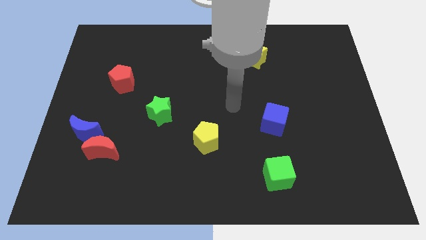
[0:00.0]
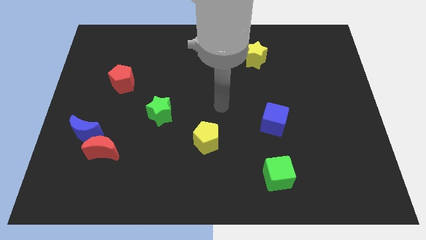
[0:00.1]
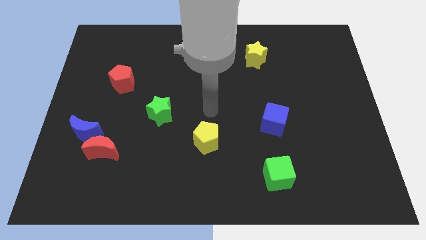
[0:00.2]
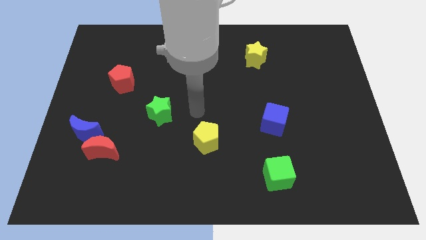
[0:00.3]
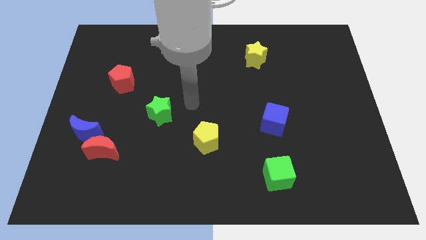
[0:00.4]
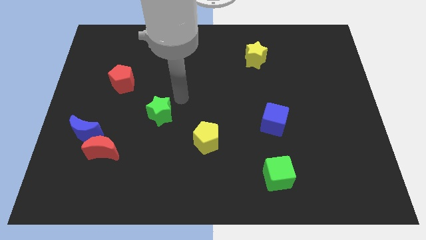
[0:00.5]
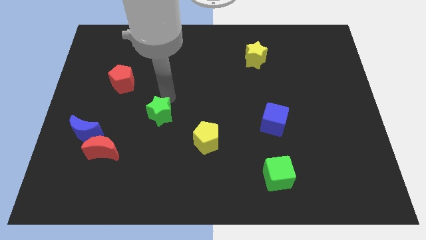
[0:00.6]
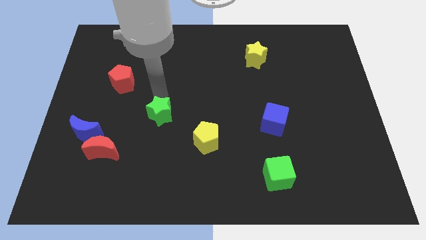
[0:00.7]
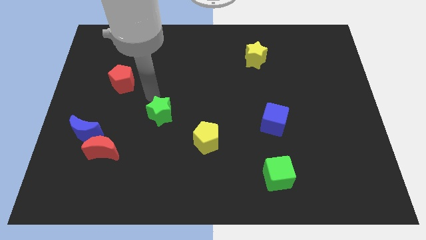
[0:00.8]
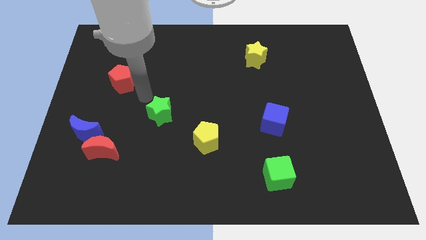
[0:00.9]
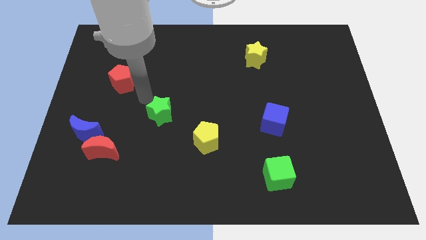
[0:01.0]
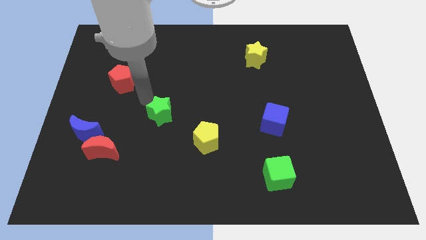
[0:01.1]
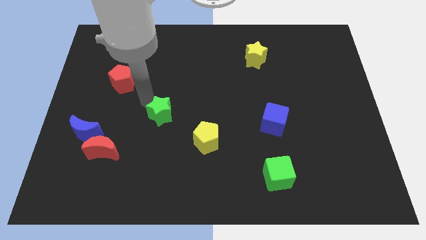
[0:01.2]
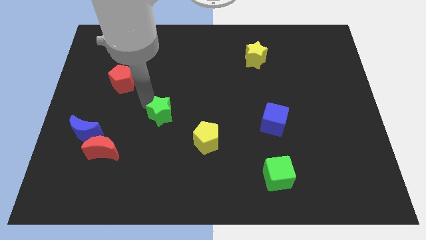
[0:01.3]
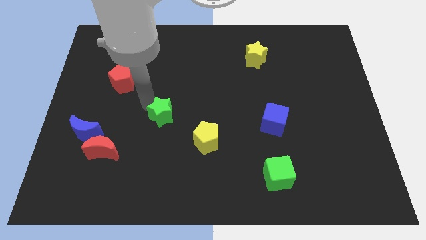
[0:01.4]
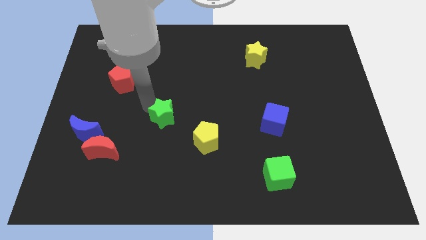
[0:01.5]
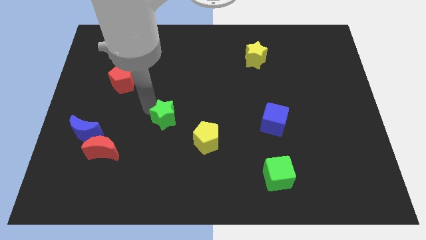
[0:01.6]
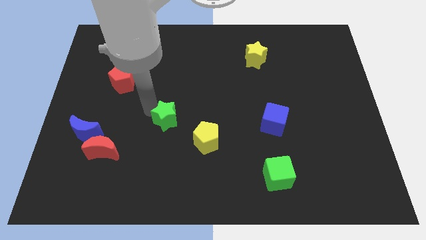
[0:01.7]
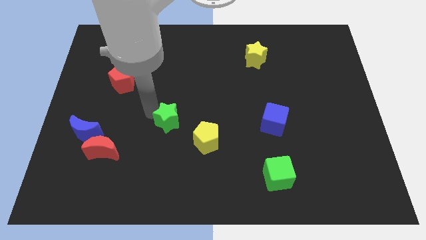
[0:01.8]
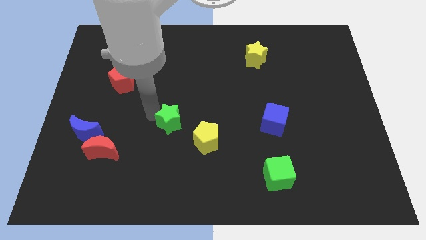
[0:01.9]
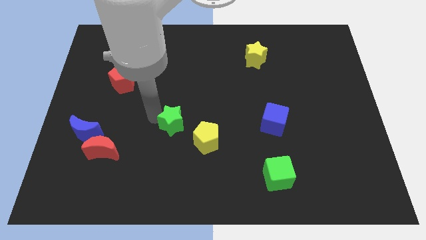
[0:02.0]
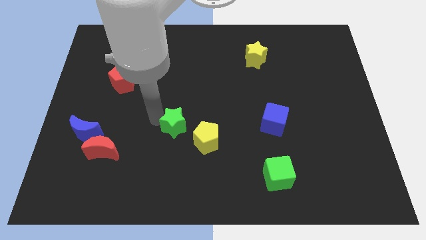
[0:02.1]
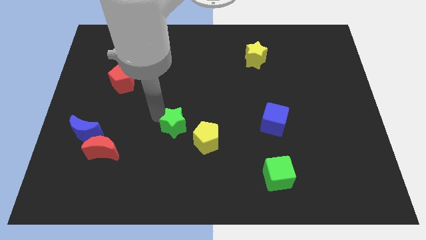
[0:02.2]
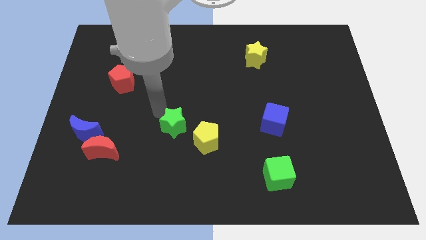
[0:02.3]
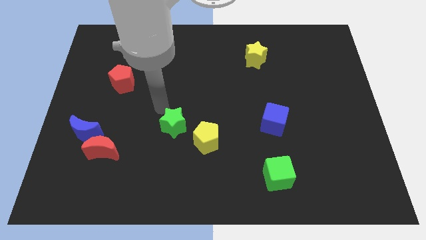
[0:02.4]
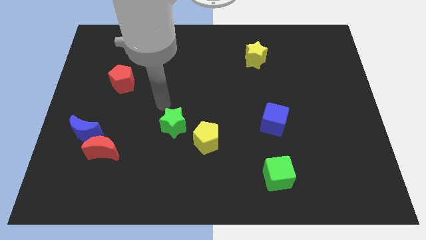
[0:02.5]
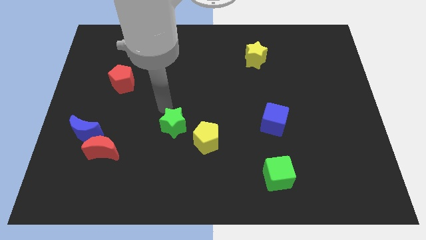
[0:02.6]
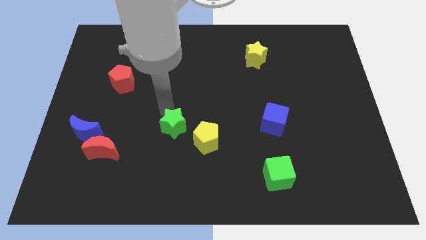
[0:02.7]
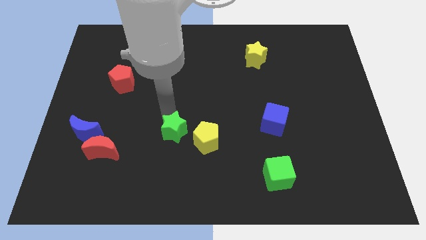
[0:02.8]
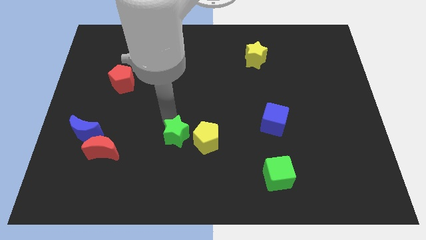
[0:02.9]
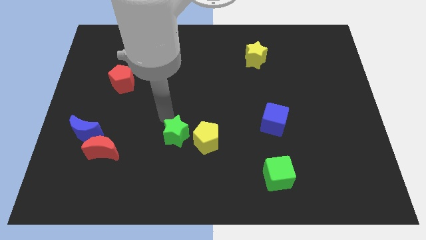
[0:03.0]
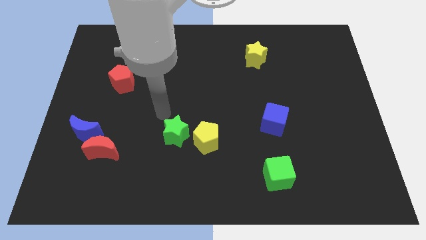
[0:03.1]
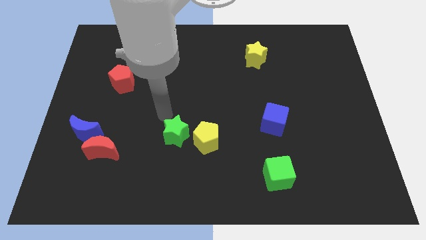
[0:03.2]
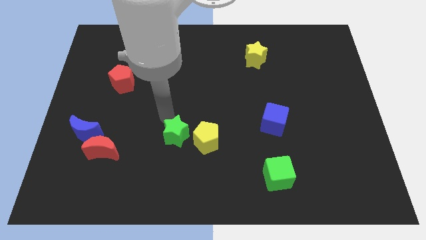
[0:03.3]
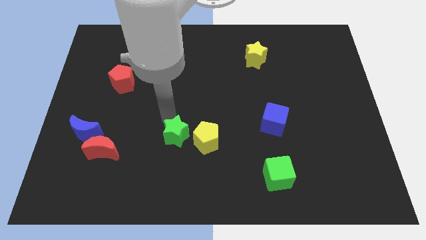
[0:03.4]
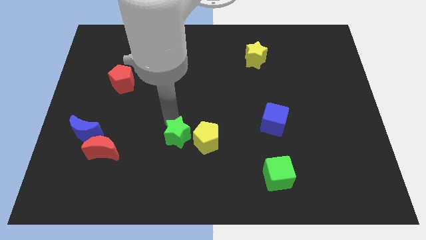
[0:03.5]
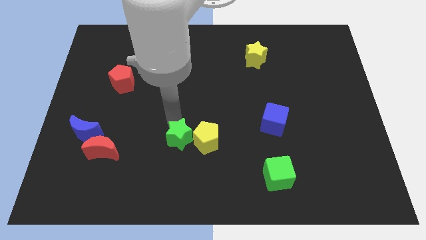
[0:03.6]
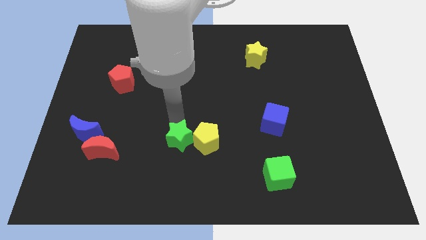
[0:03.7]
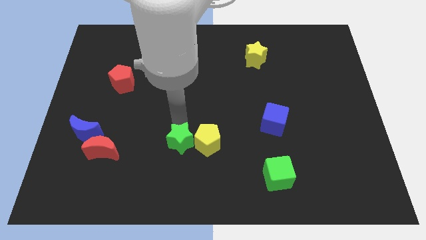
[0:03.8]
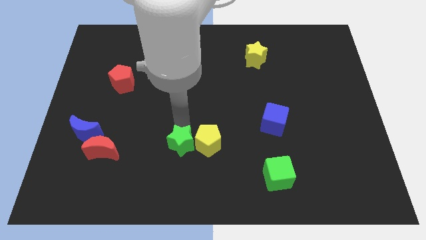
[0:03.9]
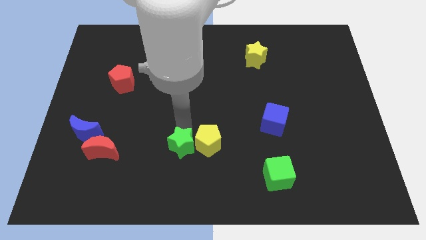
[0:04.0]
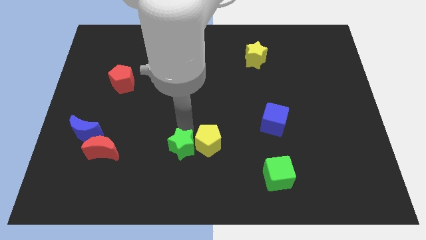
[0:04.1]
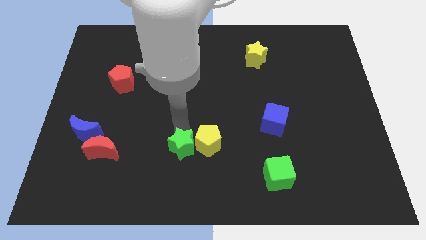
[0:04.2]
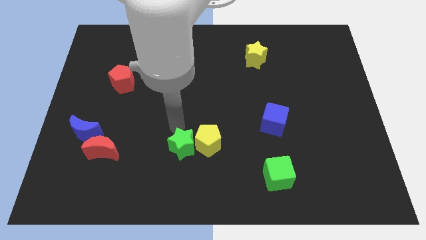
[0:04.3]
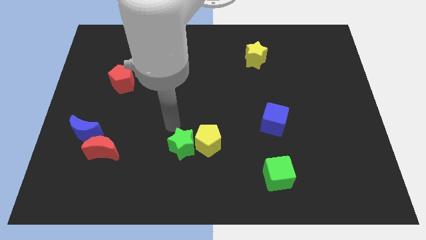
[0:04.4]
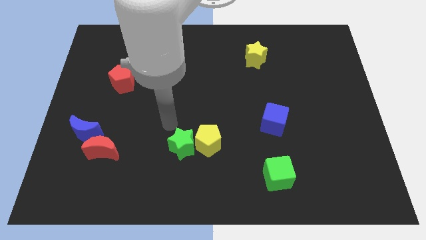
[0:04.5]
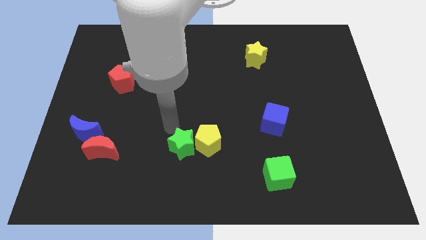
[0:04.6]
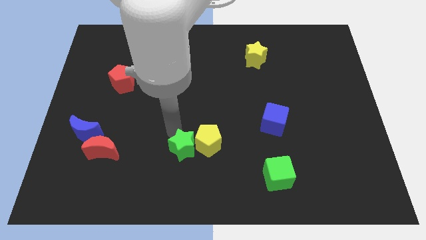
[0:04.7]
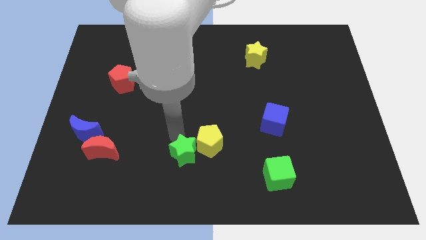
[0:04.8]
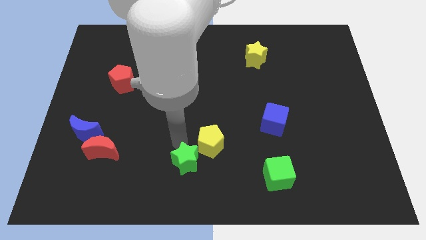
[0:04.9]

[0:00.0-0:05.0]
move the green star to the bottom
